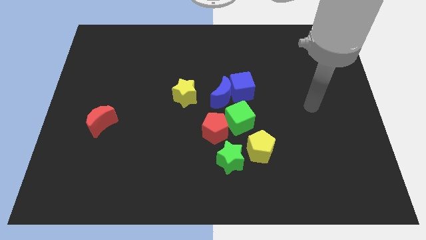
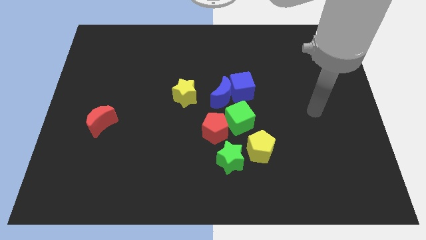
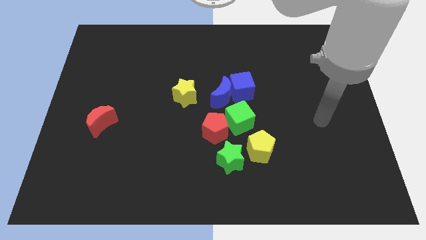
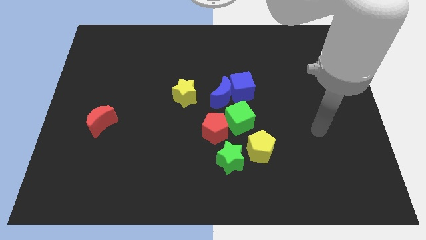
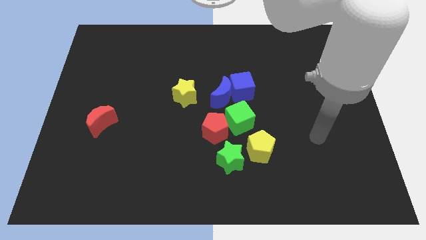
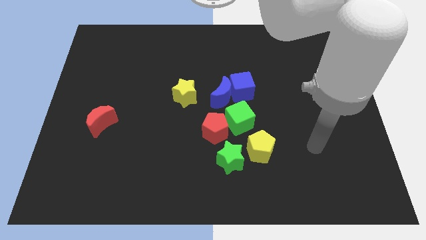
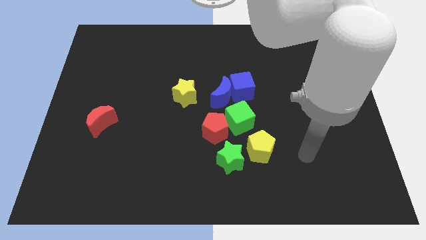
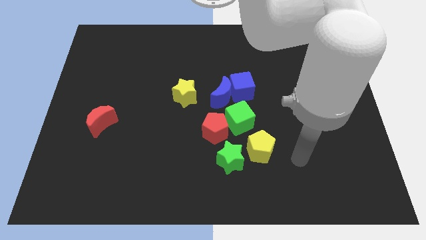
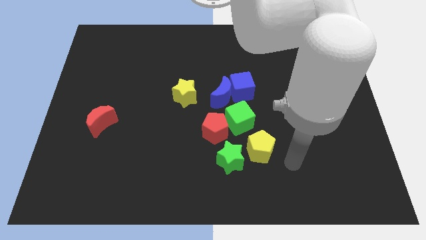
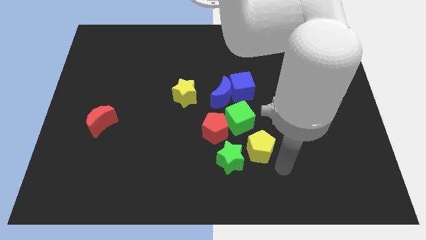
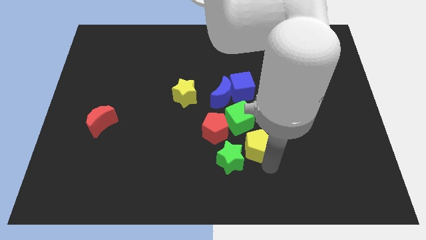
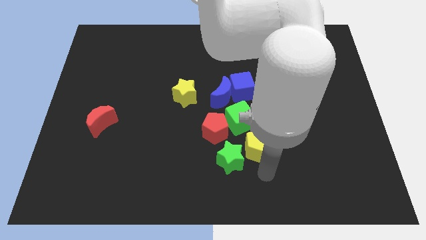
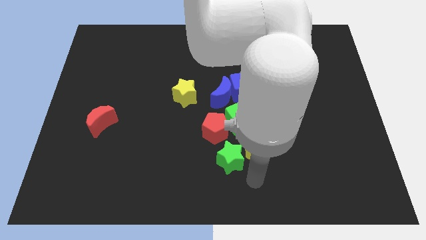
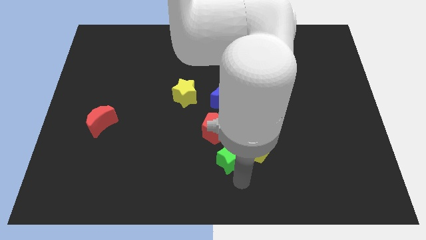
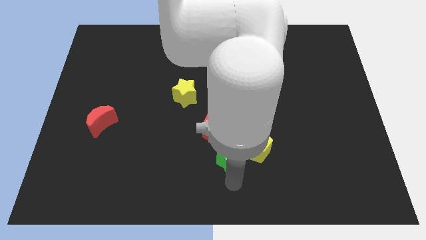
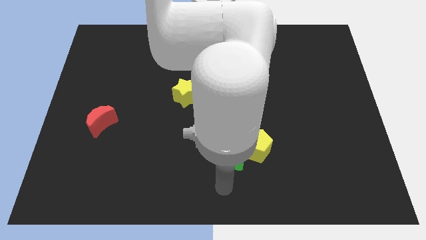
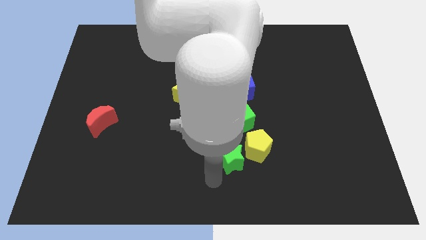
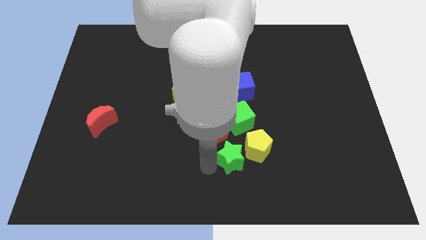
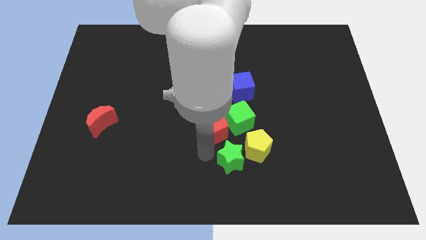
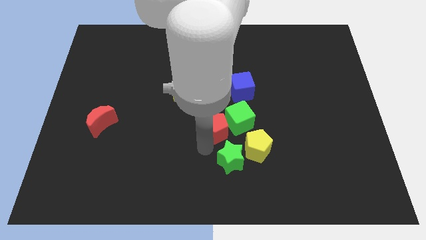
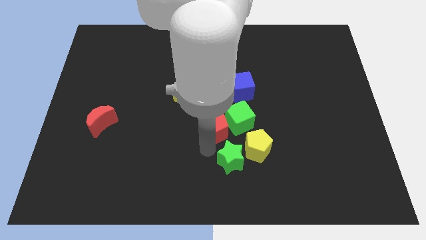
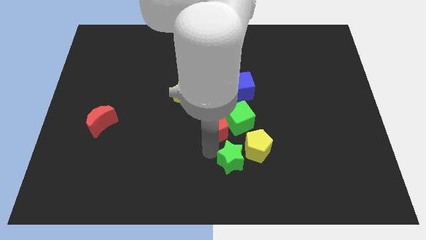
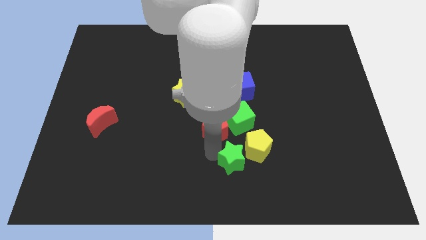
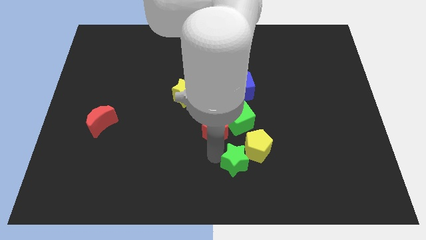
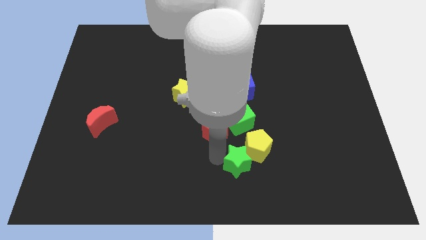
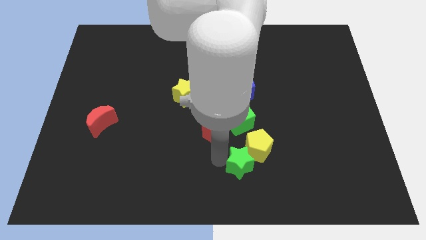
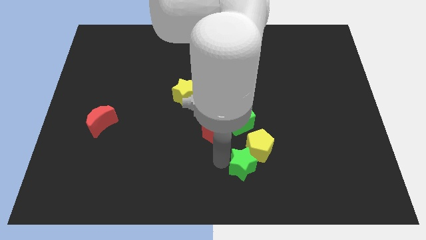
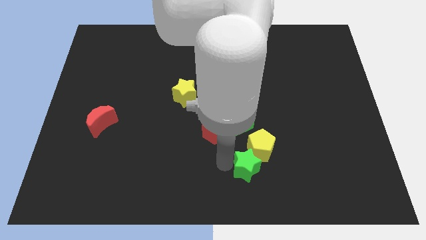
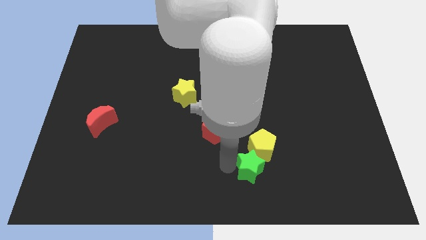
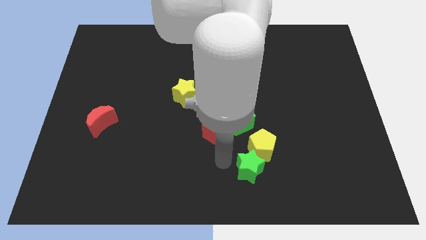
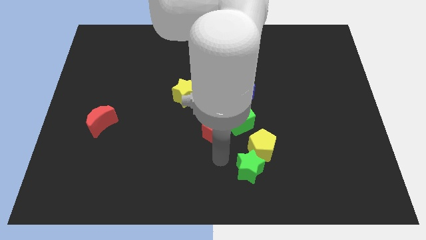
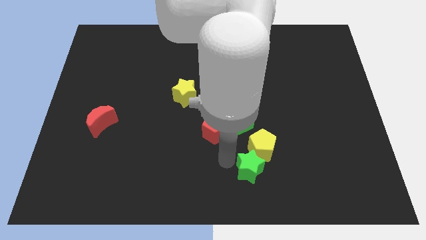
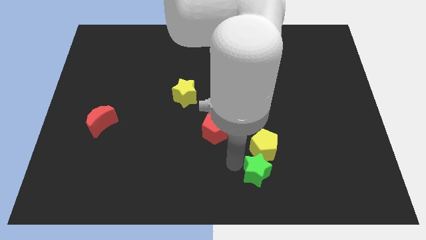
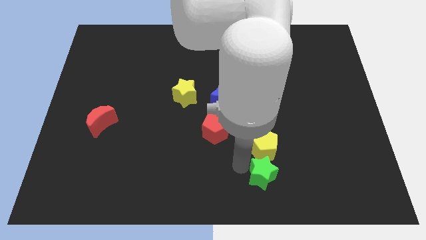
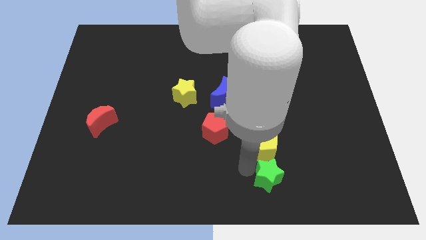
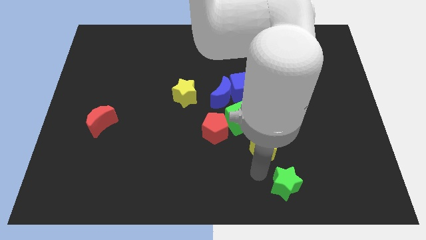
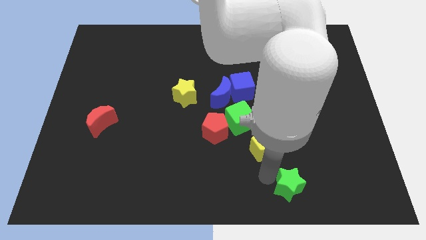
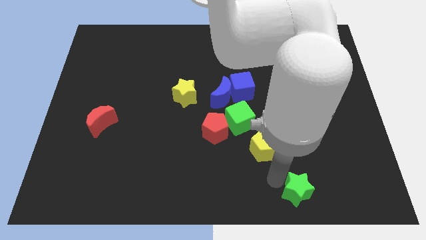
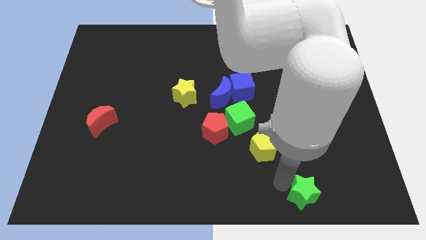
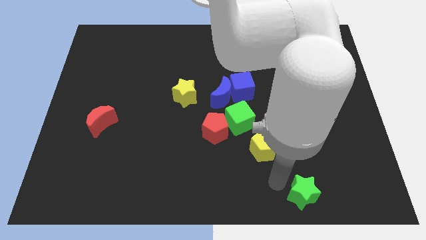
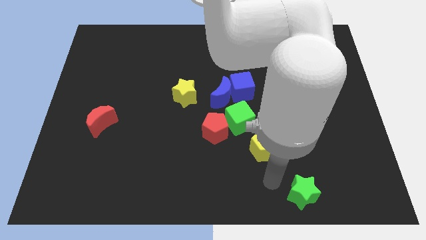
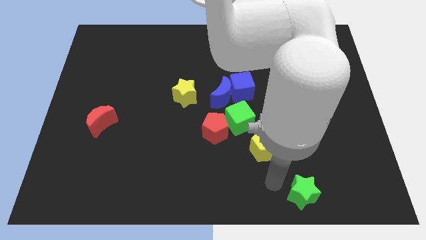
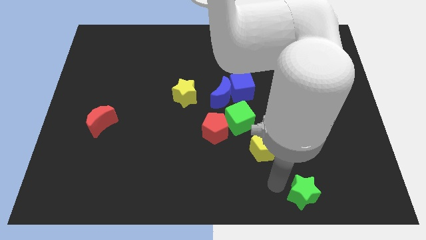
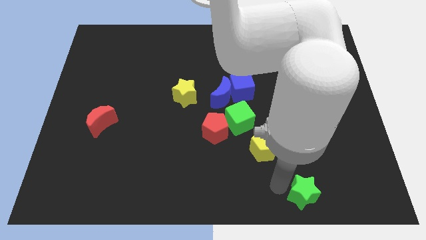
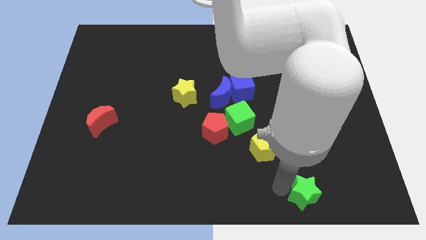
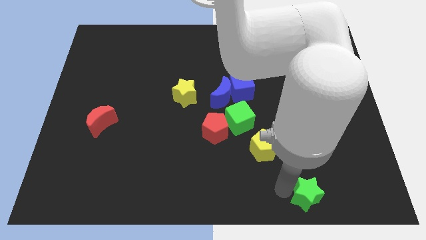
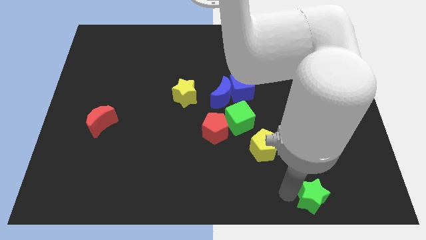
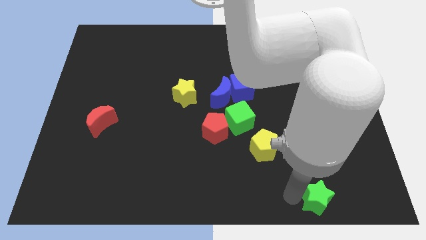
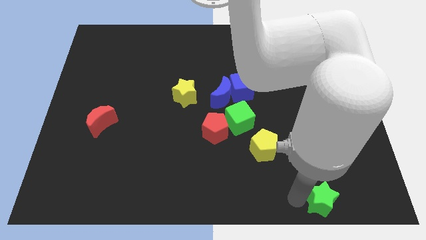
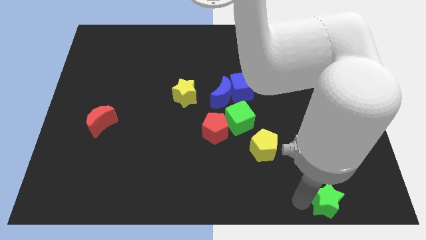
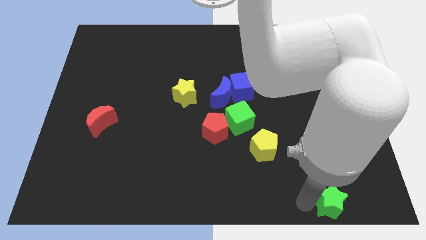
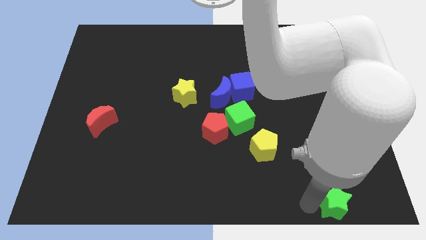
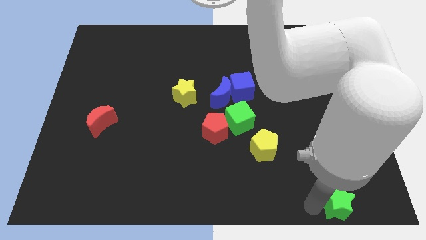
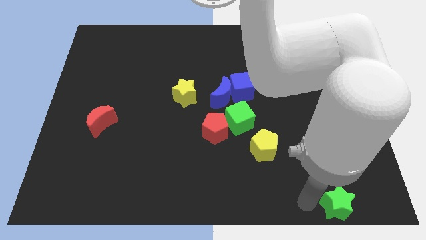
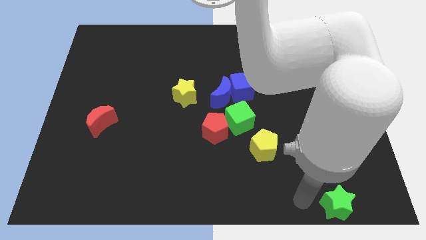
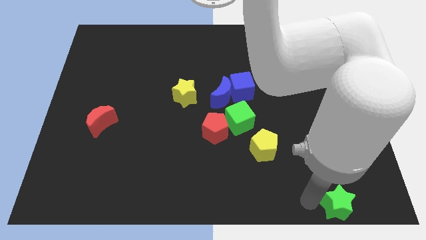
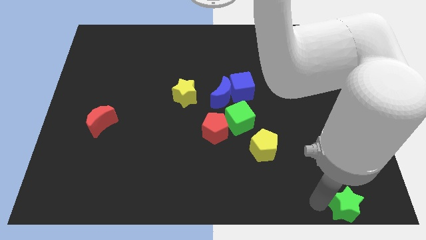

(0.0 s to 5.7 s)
slide the green star to the lower right corner
